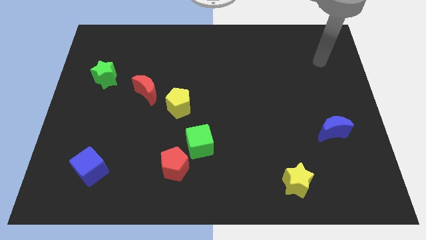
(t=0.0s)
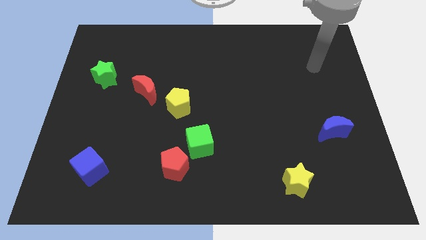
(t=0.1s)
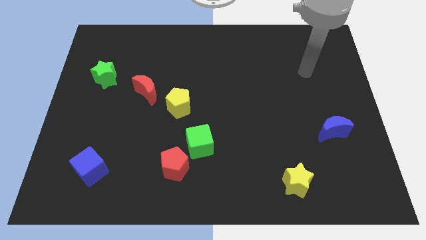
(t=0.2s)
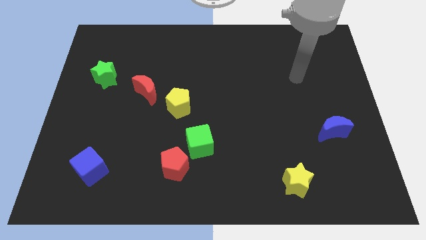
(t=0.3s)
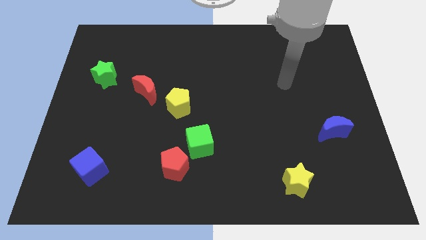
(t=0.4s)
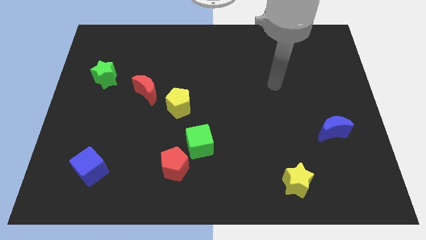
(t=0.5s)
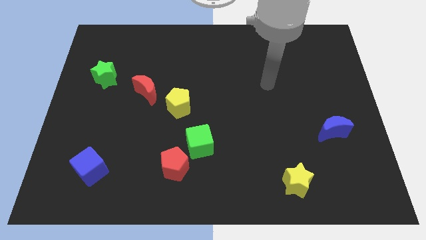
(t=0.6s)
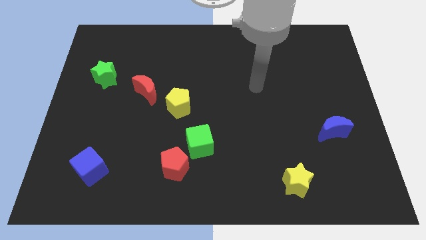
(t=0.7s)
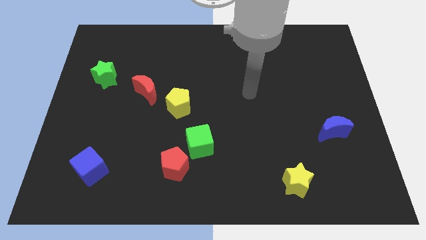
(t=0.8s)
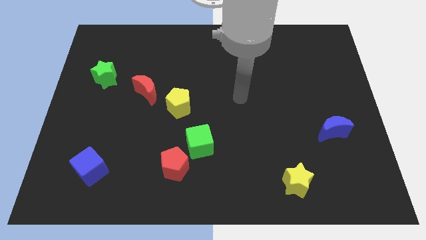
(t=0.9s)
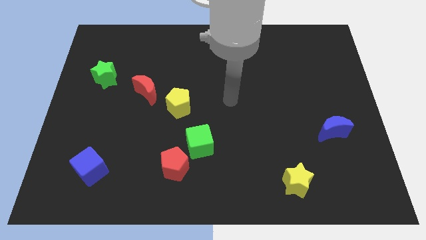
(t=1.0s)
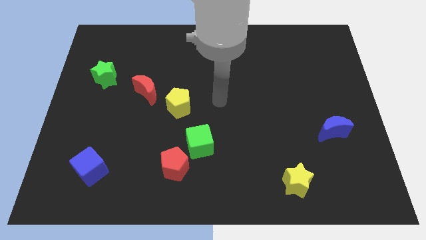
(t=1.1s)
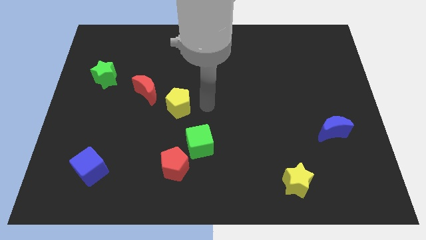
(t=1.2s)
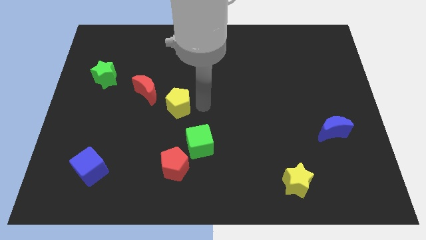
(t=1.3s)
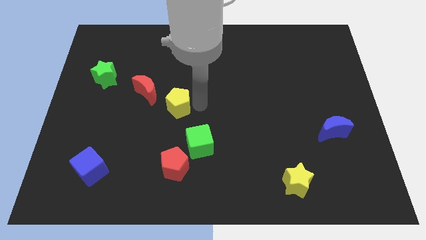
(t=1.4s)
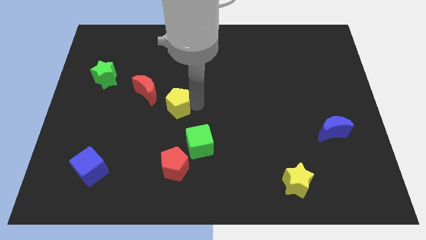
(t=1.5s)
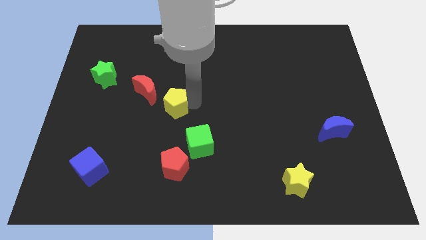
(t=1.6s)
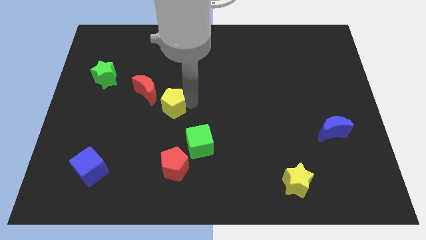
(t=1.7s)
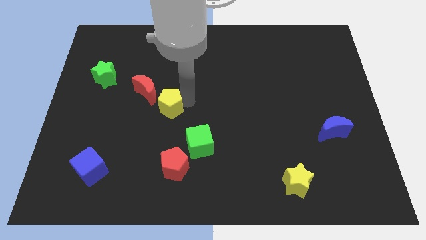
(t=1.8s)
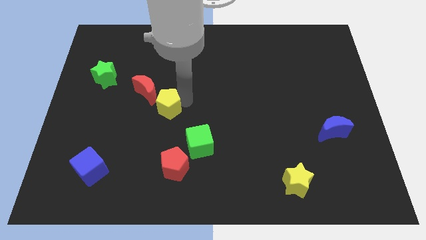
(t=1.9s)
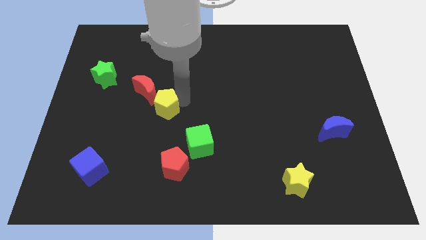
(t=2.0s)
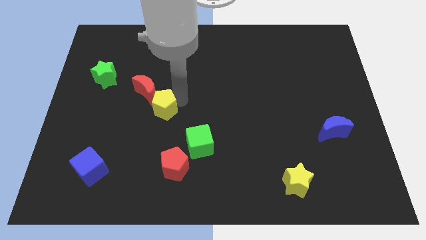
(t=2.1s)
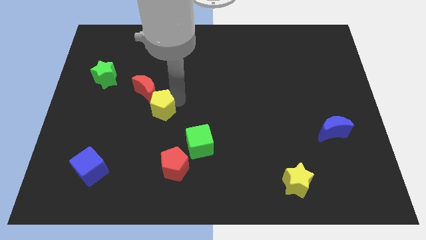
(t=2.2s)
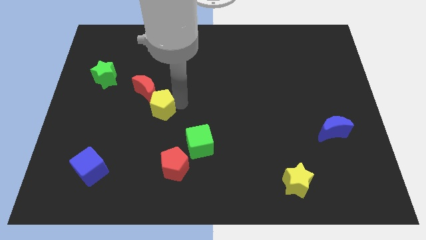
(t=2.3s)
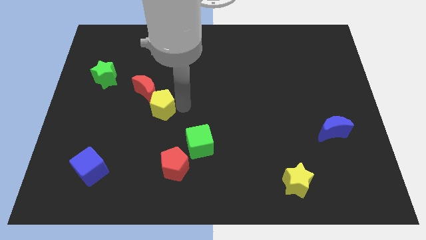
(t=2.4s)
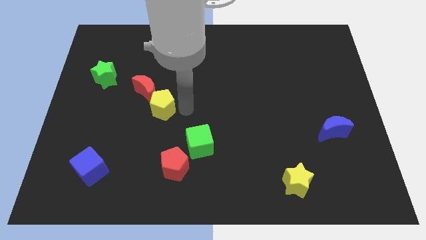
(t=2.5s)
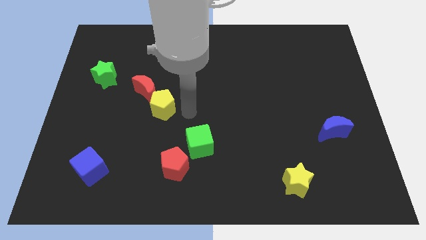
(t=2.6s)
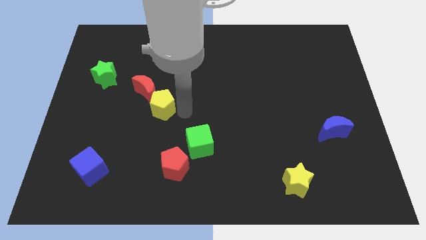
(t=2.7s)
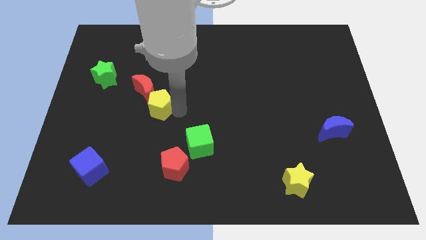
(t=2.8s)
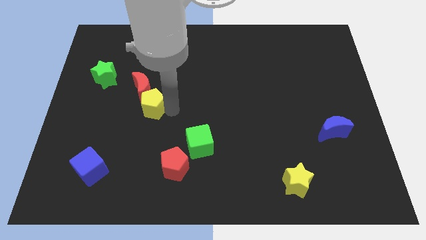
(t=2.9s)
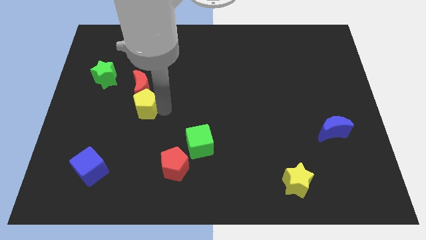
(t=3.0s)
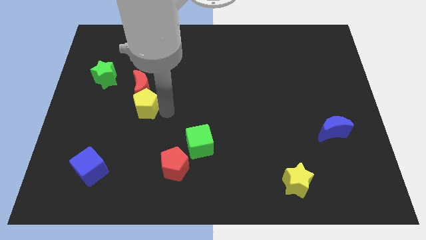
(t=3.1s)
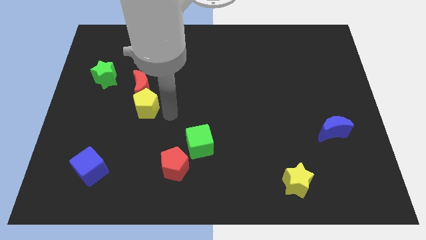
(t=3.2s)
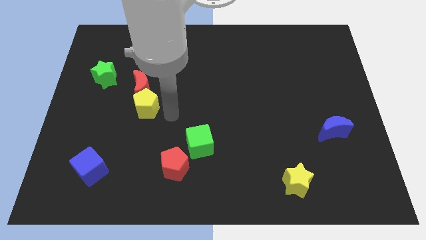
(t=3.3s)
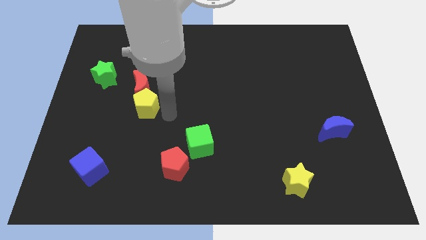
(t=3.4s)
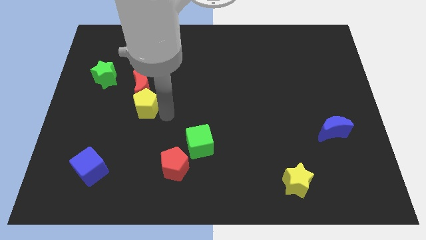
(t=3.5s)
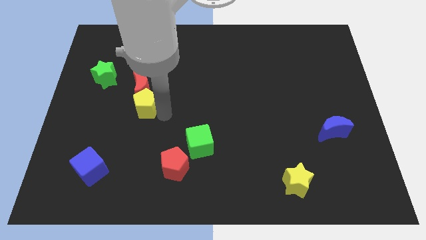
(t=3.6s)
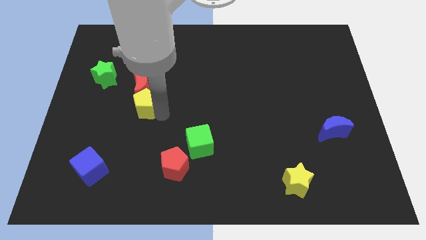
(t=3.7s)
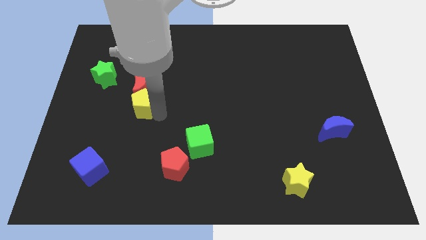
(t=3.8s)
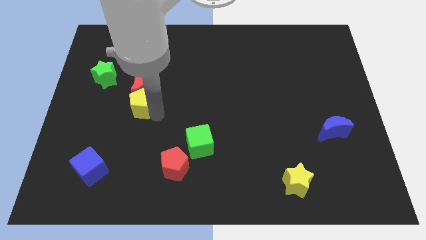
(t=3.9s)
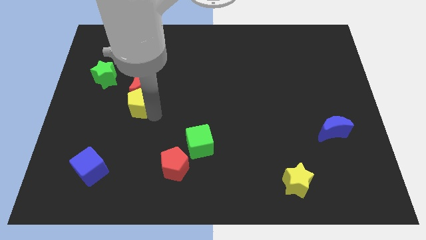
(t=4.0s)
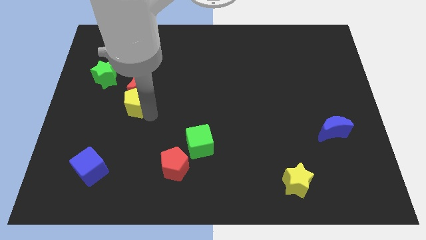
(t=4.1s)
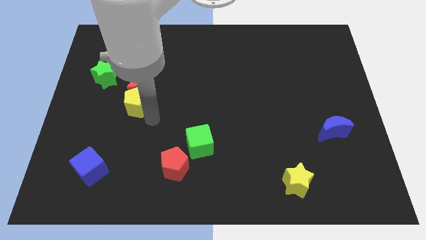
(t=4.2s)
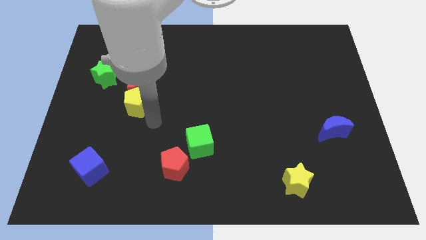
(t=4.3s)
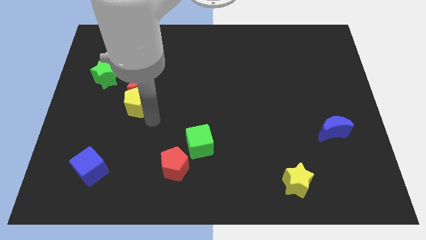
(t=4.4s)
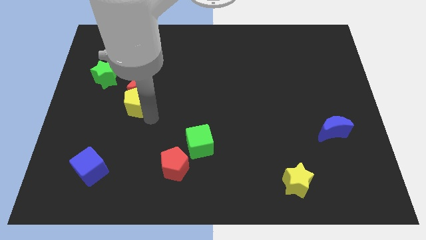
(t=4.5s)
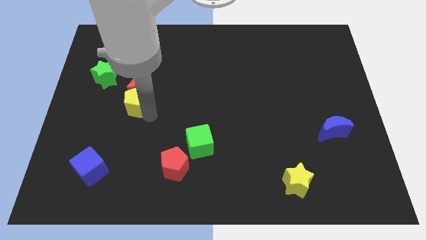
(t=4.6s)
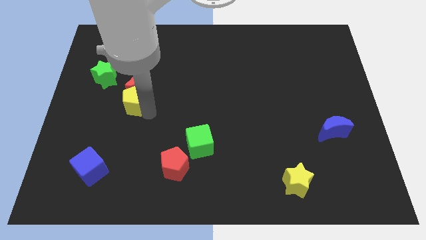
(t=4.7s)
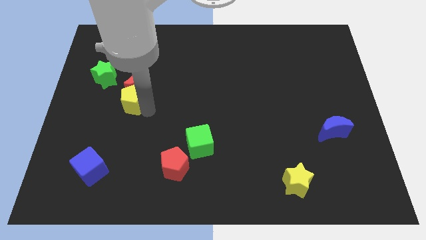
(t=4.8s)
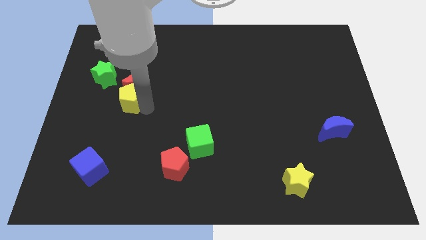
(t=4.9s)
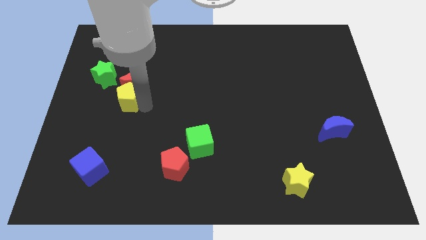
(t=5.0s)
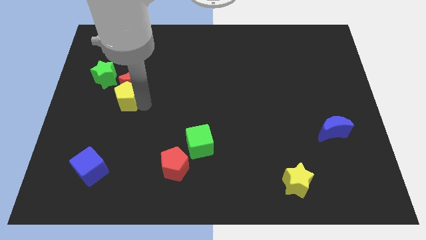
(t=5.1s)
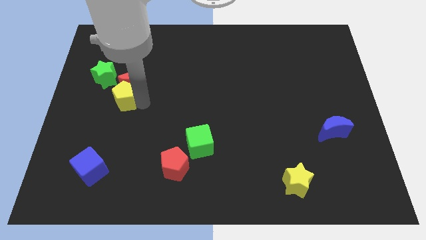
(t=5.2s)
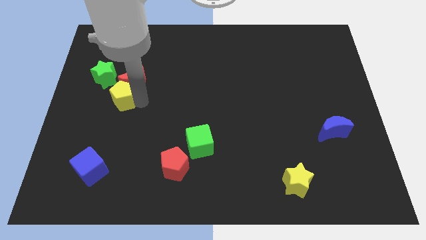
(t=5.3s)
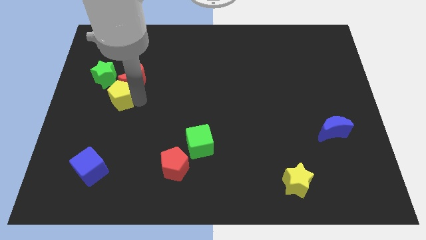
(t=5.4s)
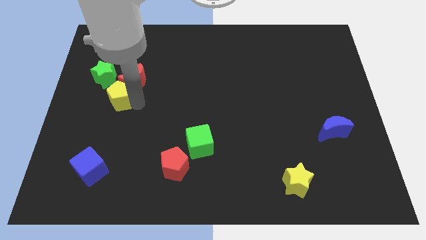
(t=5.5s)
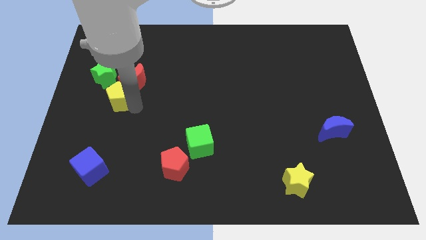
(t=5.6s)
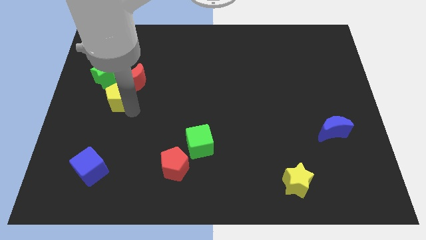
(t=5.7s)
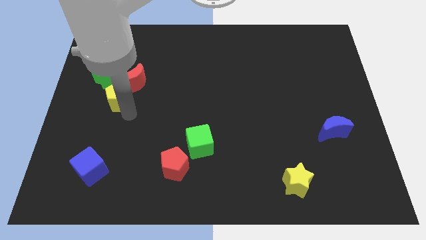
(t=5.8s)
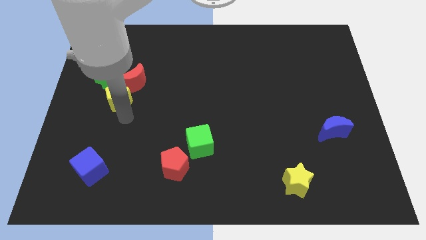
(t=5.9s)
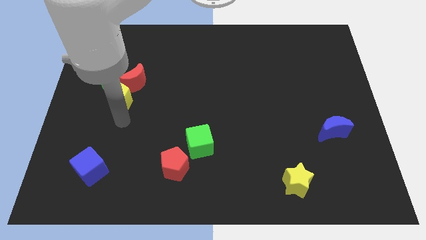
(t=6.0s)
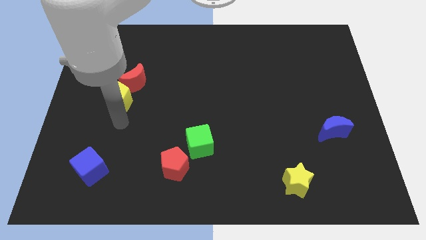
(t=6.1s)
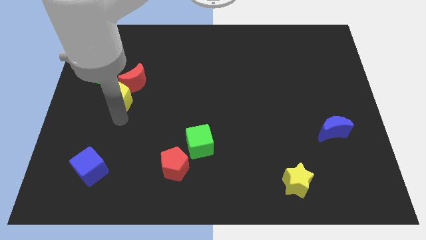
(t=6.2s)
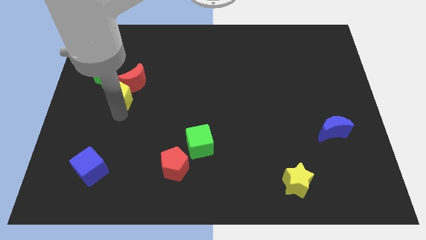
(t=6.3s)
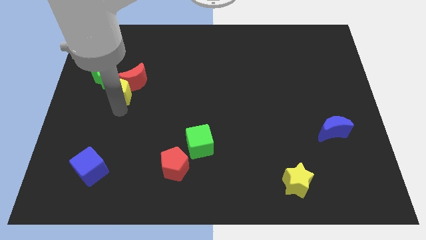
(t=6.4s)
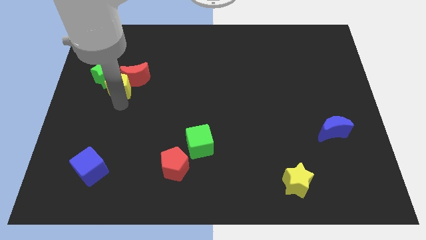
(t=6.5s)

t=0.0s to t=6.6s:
put the yellow pentagon to the green star

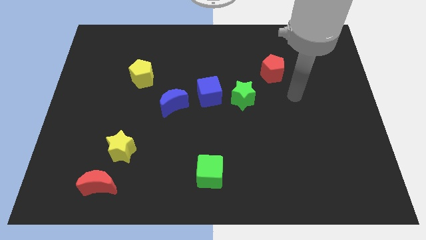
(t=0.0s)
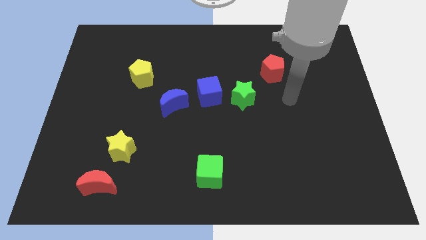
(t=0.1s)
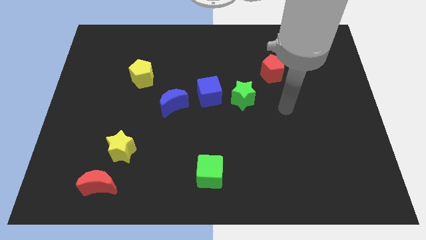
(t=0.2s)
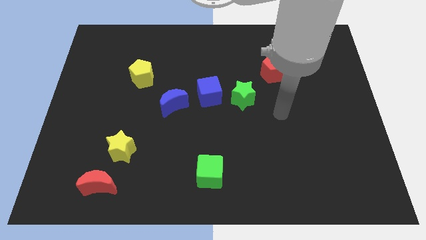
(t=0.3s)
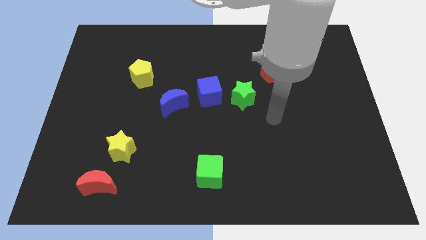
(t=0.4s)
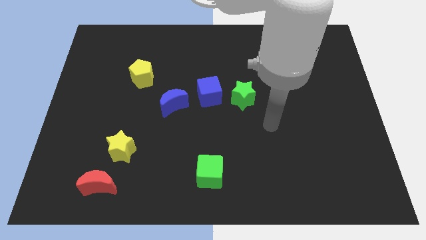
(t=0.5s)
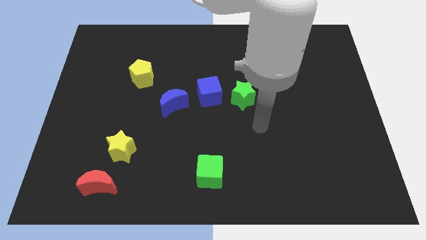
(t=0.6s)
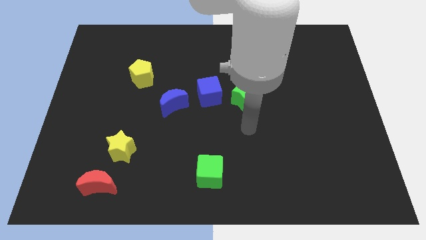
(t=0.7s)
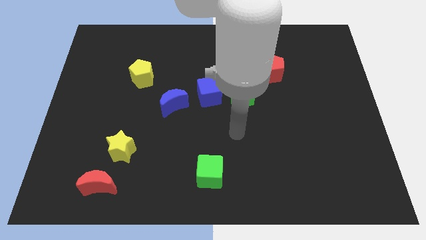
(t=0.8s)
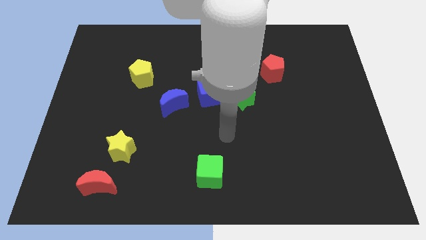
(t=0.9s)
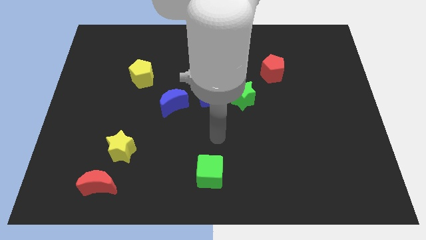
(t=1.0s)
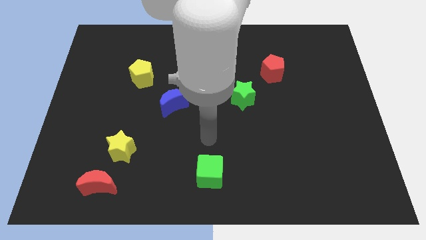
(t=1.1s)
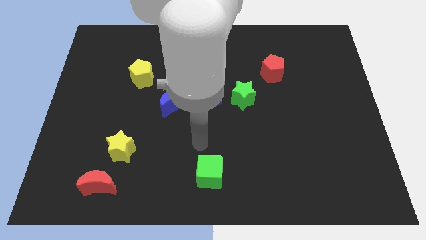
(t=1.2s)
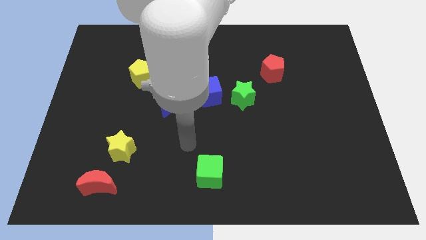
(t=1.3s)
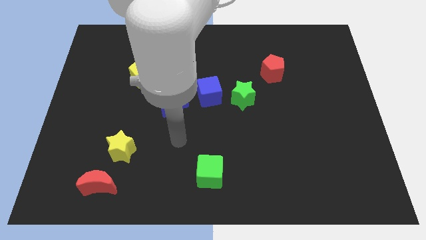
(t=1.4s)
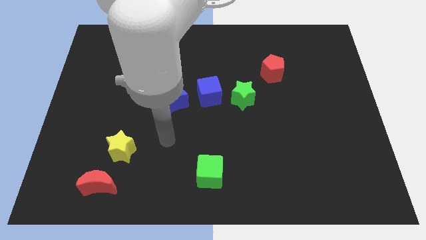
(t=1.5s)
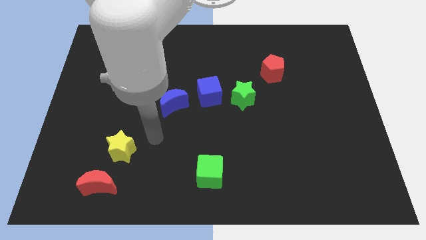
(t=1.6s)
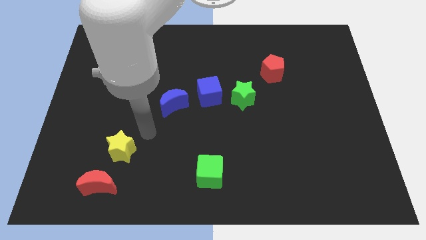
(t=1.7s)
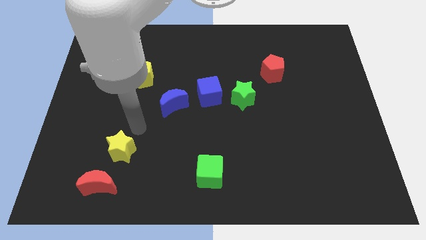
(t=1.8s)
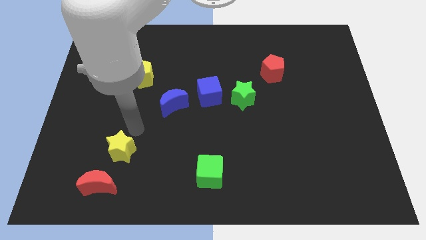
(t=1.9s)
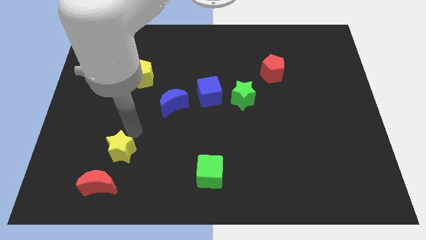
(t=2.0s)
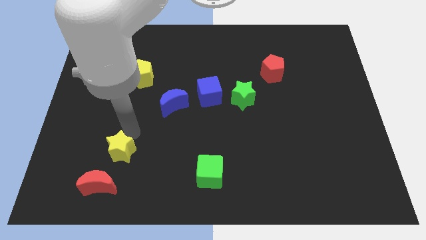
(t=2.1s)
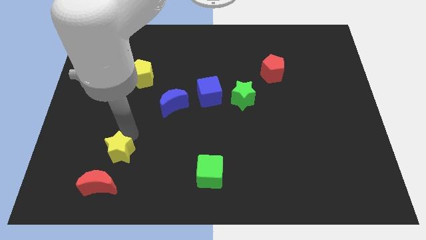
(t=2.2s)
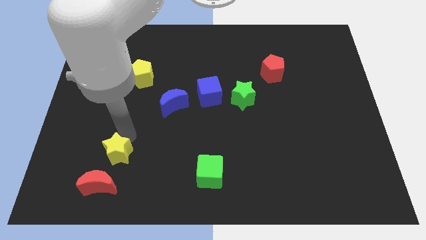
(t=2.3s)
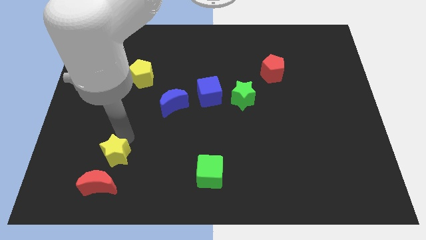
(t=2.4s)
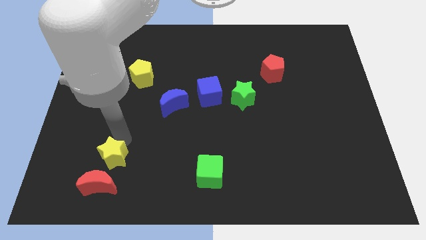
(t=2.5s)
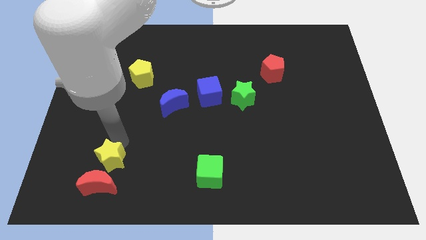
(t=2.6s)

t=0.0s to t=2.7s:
put the yellow star to the red moon
